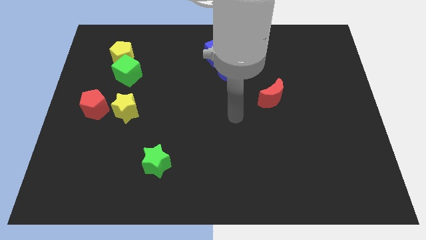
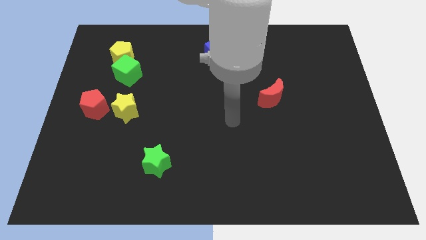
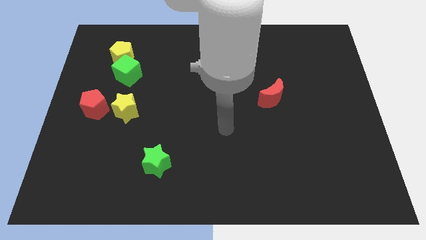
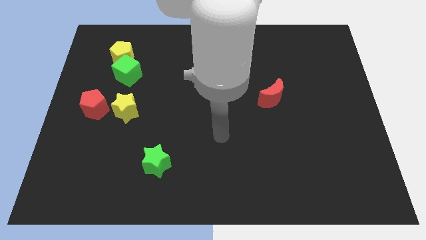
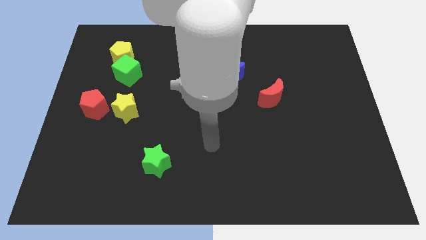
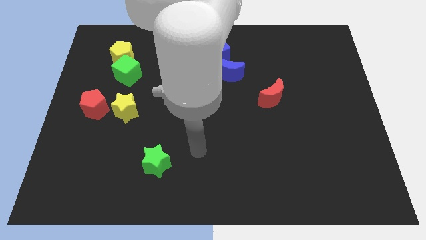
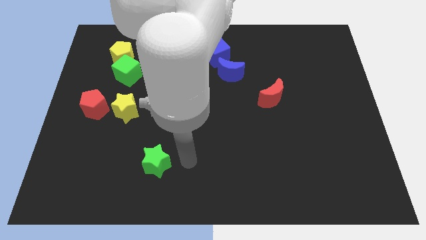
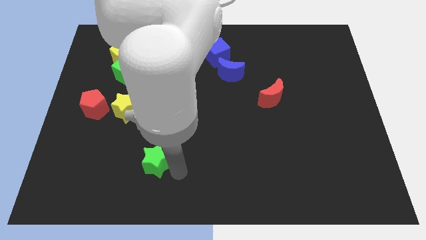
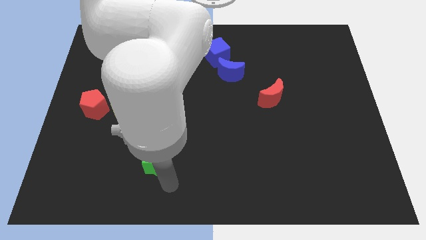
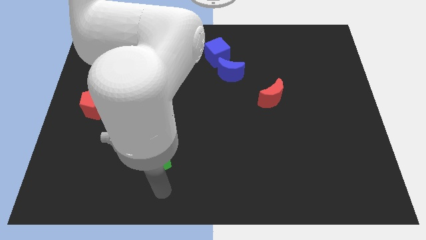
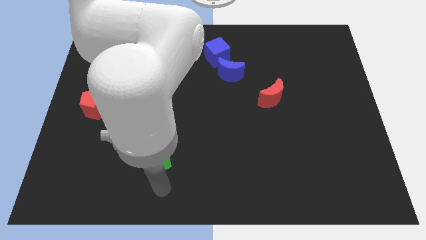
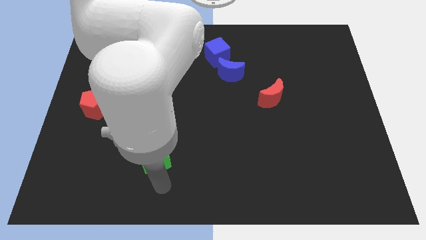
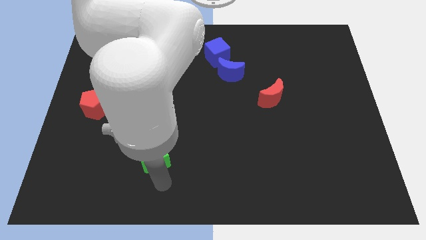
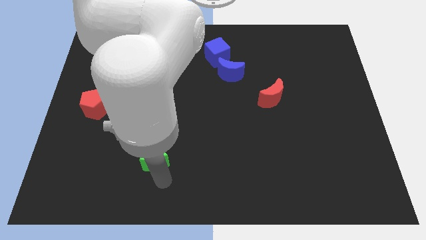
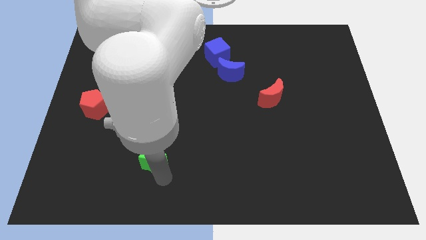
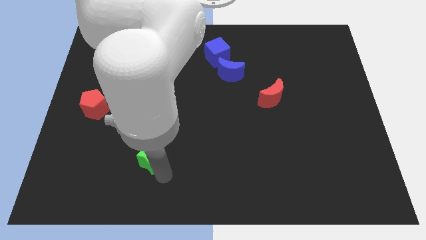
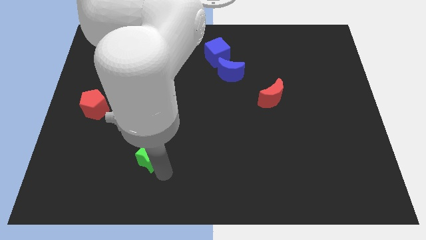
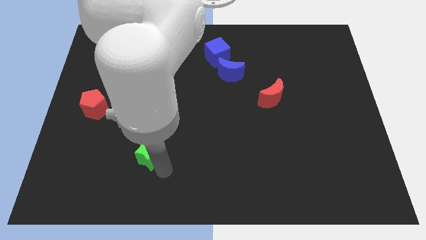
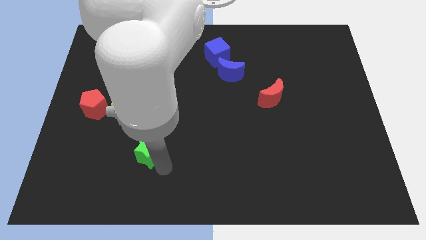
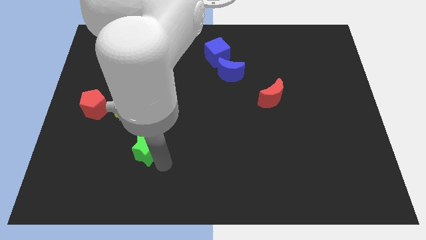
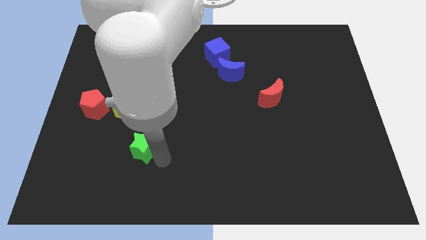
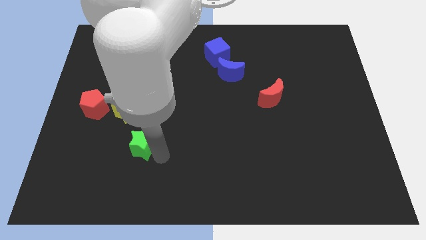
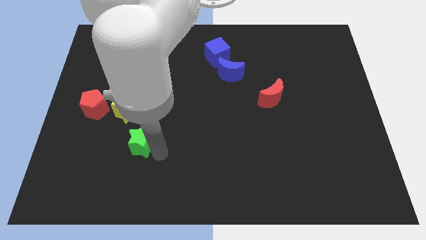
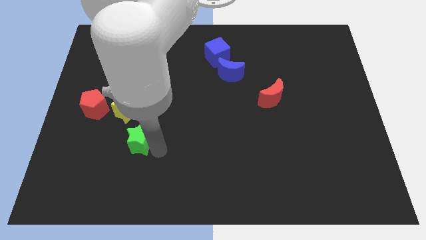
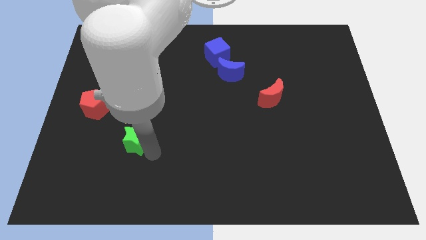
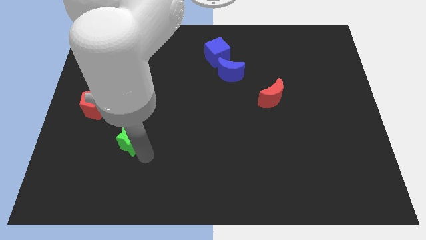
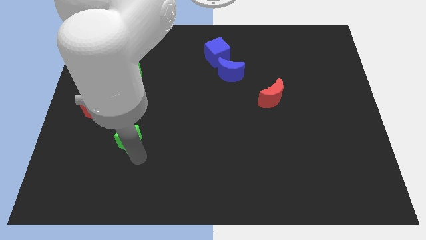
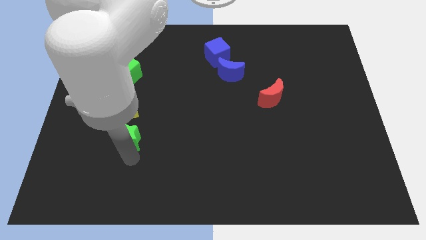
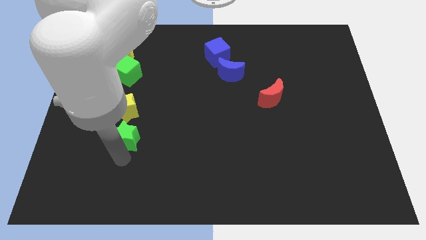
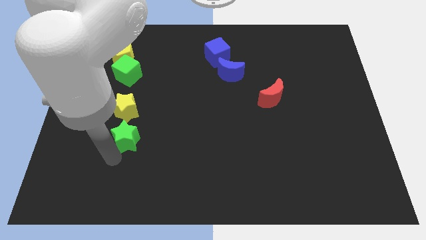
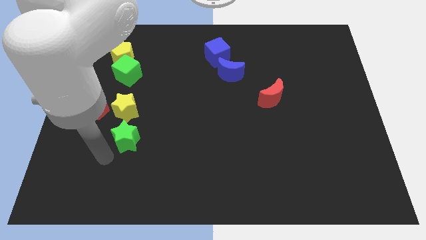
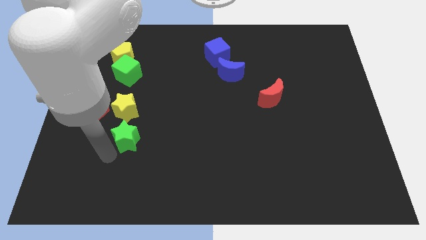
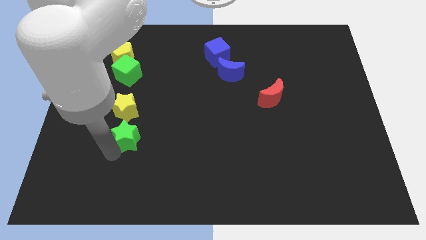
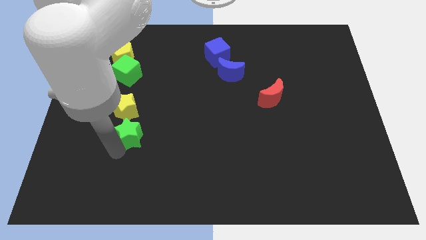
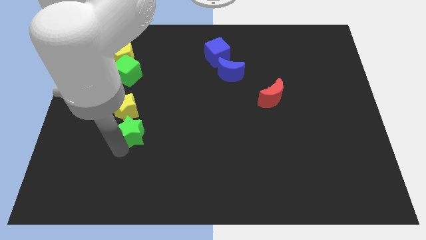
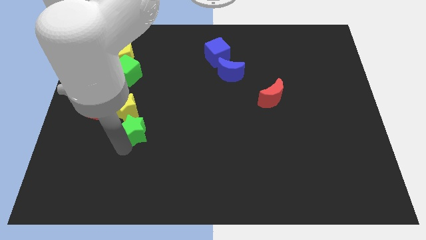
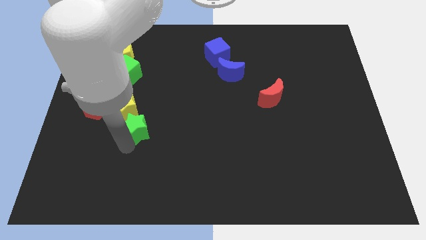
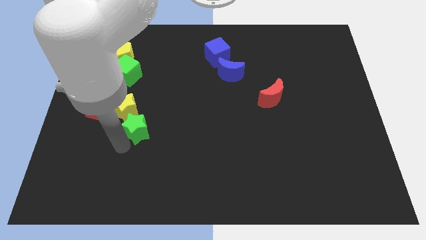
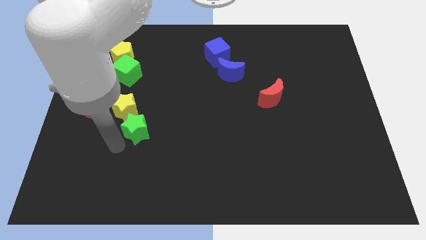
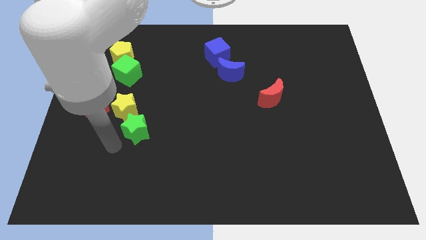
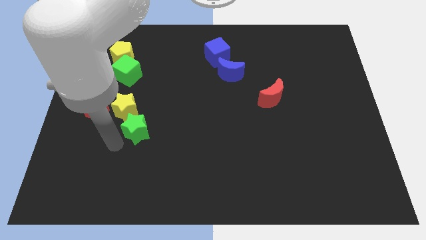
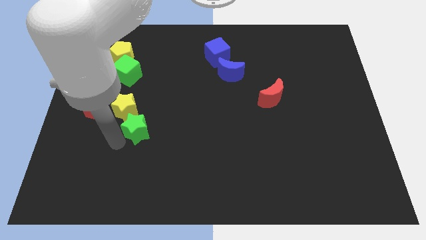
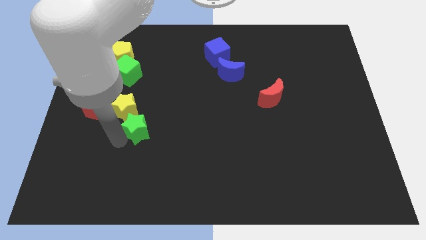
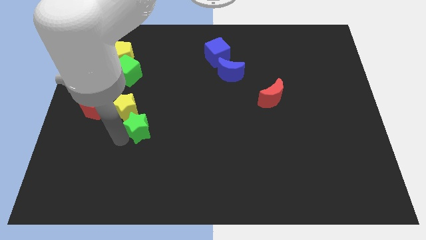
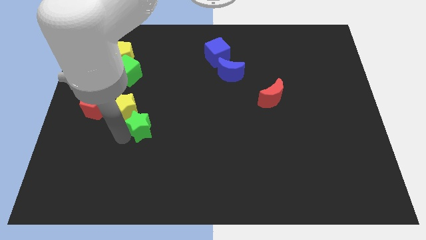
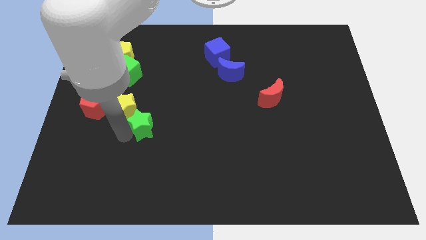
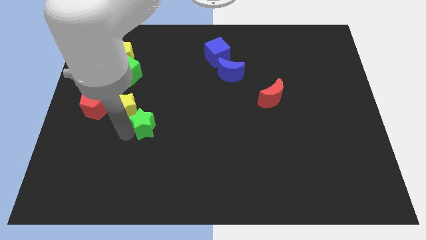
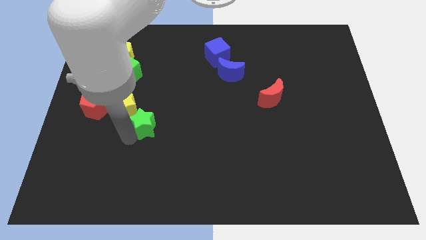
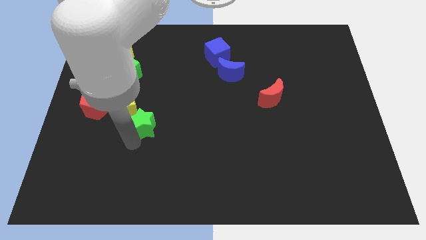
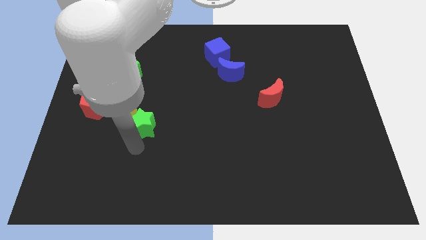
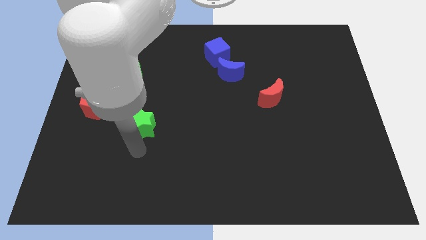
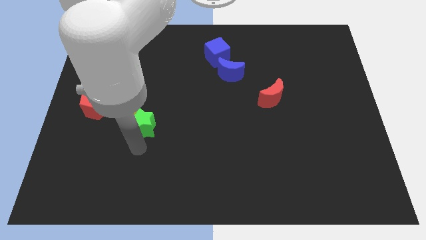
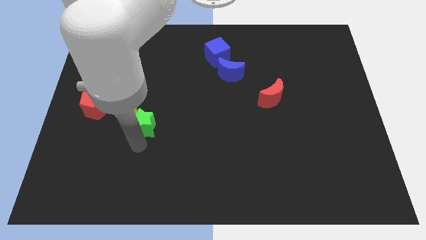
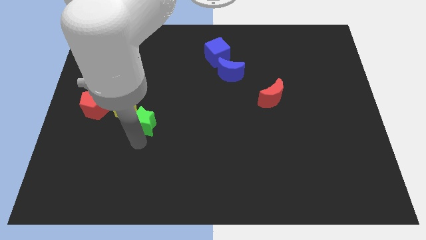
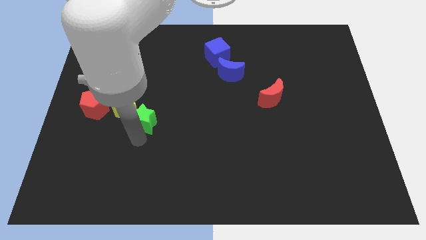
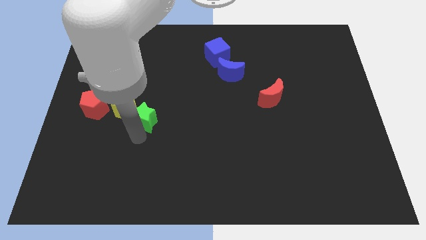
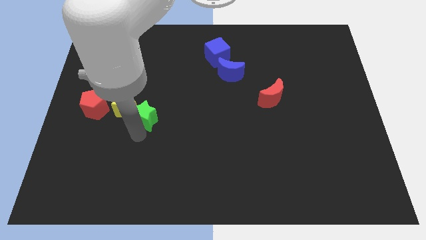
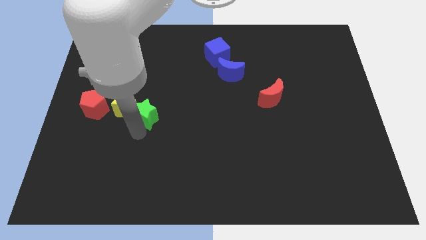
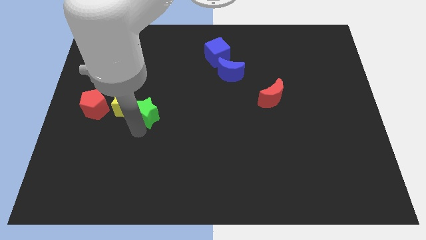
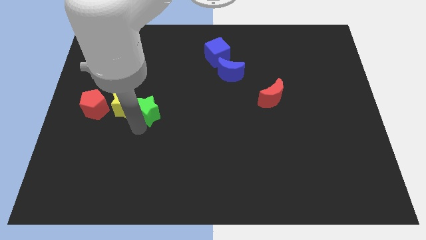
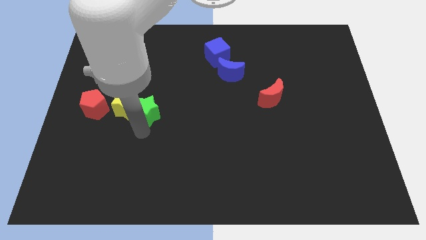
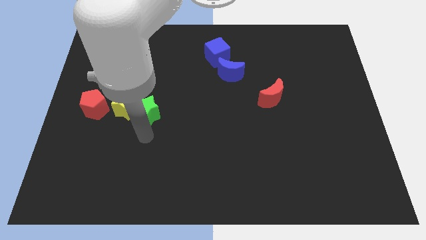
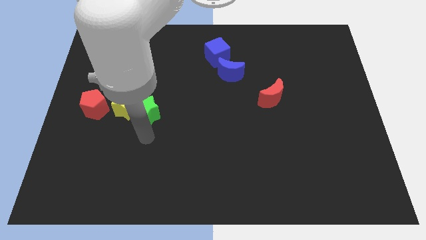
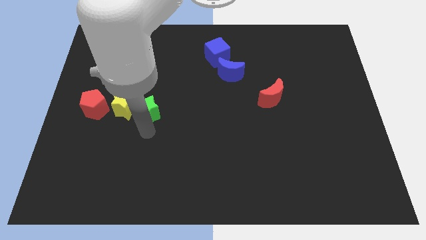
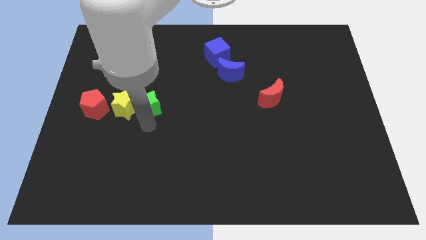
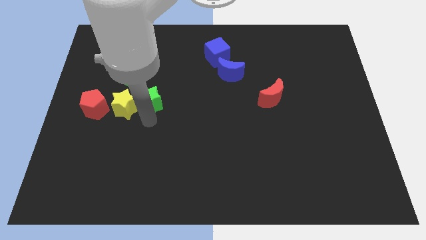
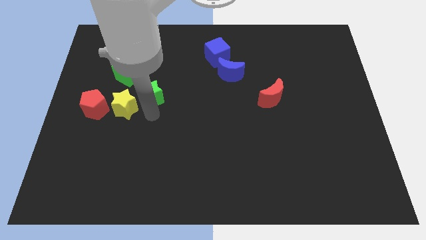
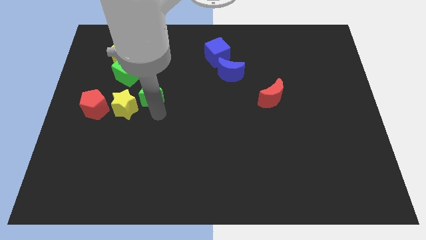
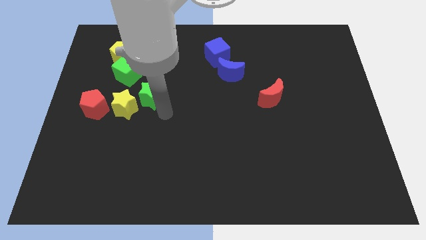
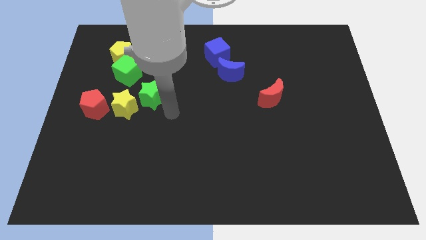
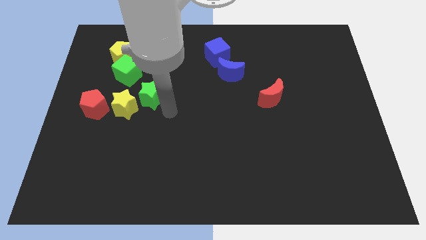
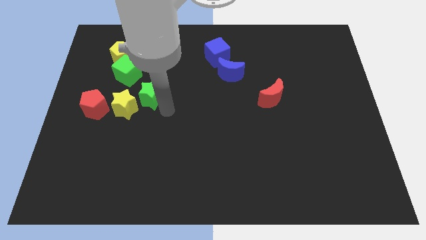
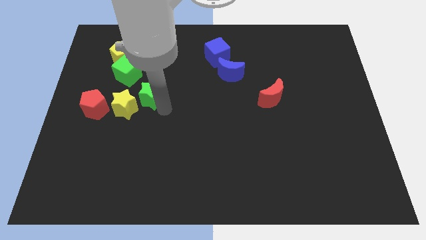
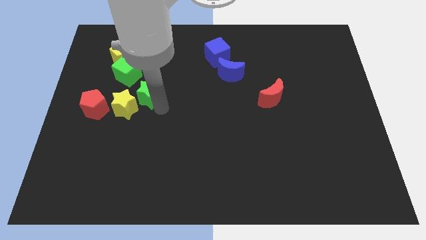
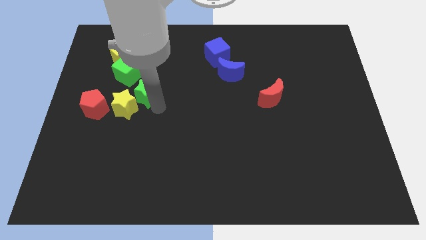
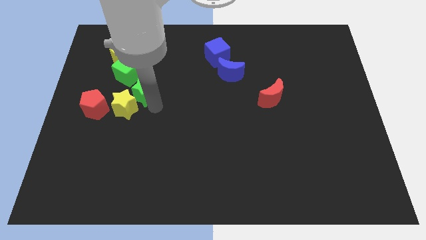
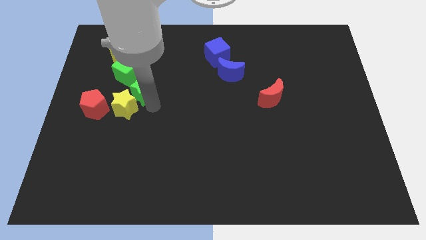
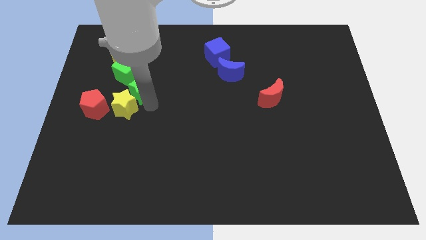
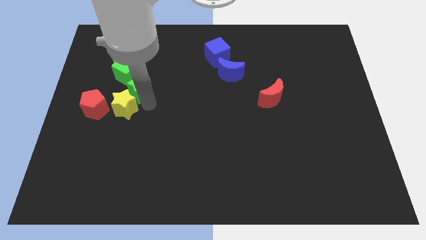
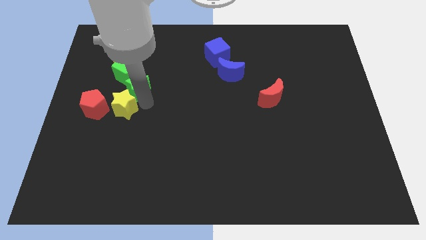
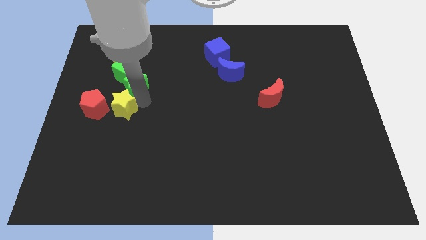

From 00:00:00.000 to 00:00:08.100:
move the green star next to the green cube
